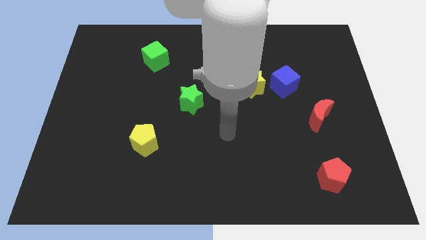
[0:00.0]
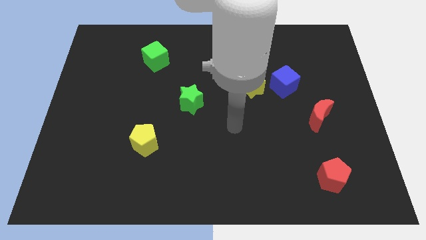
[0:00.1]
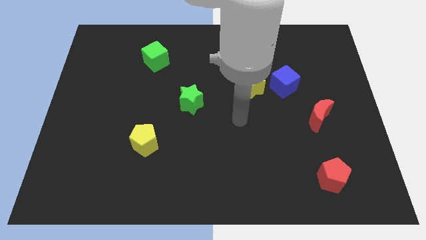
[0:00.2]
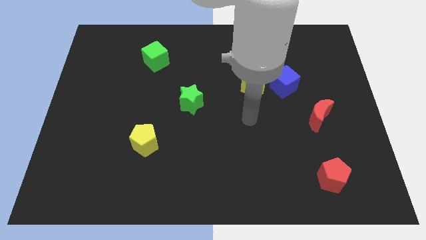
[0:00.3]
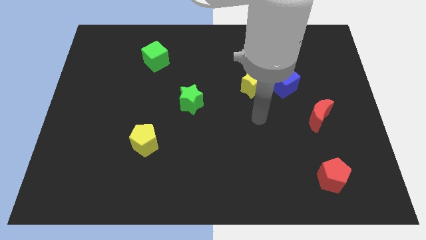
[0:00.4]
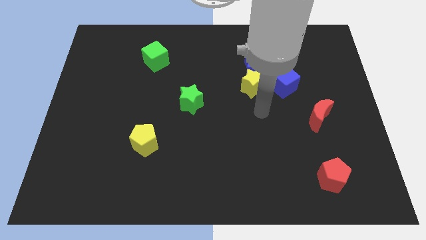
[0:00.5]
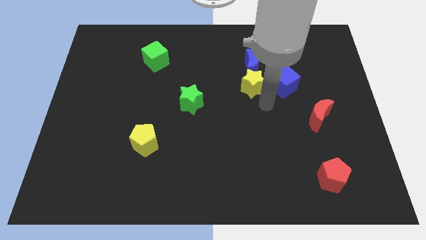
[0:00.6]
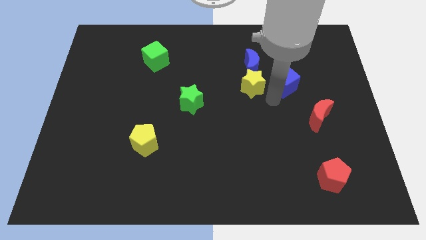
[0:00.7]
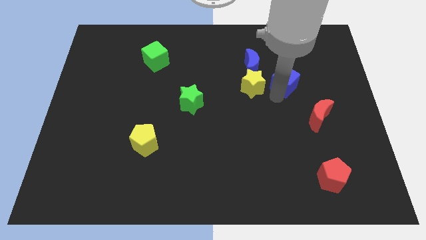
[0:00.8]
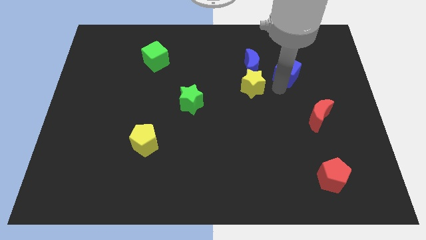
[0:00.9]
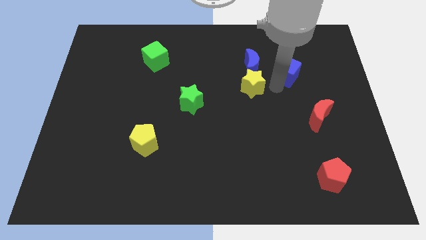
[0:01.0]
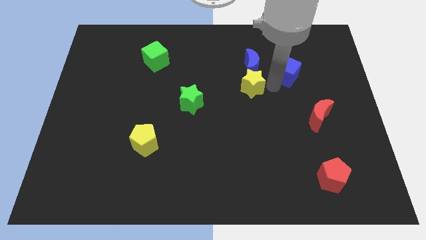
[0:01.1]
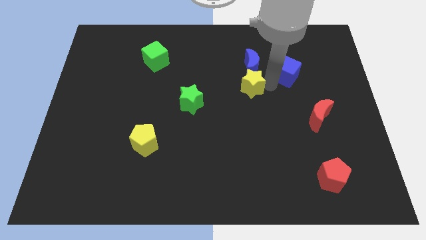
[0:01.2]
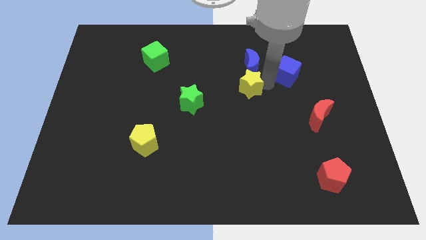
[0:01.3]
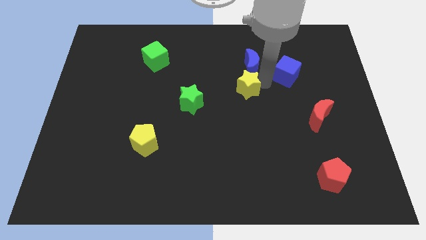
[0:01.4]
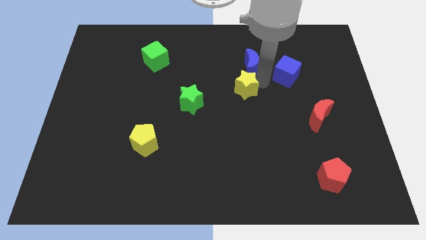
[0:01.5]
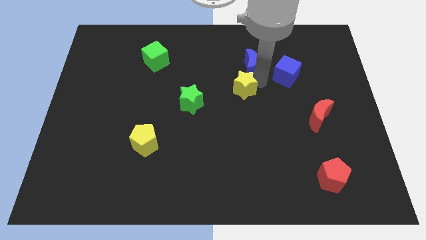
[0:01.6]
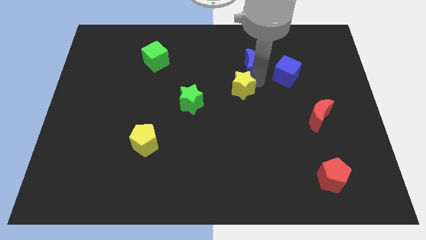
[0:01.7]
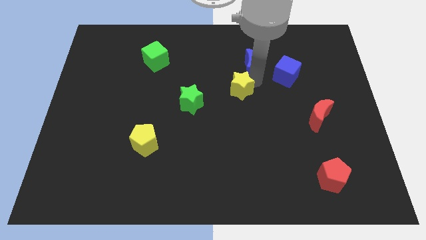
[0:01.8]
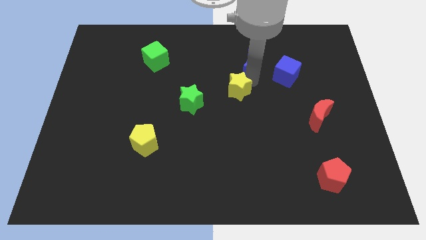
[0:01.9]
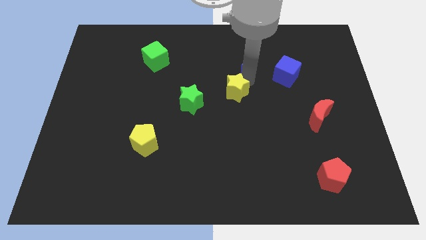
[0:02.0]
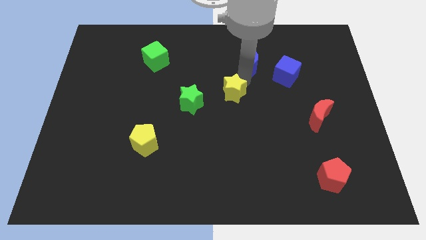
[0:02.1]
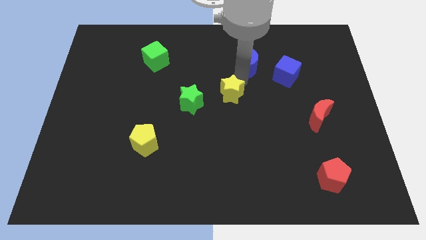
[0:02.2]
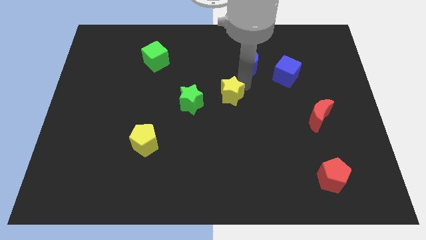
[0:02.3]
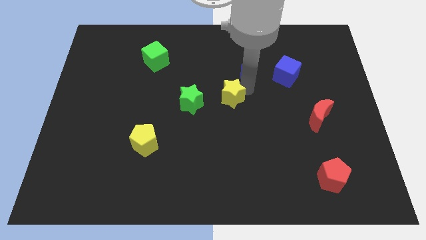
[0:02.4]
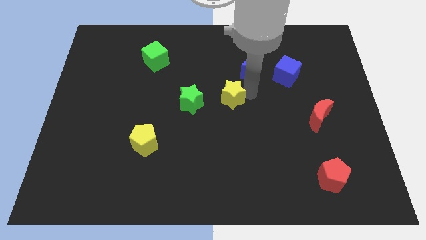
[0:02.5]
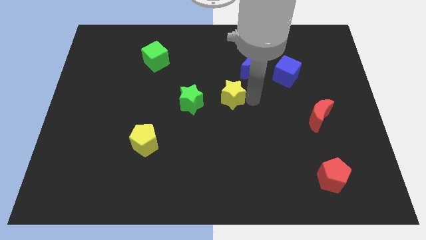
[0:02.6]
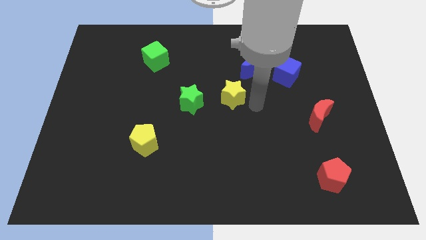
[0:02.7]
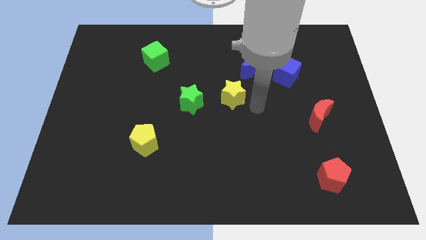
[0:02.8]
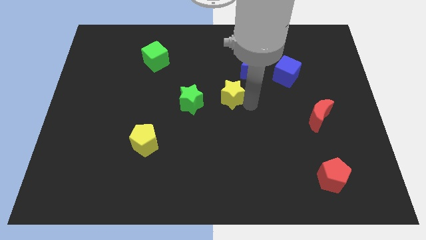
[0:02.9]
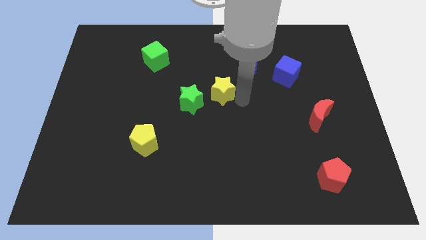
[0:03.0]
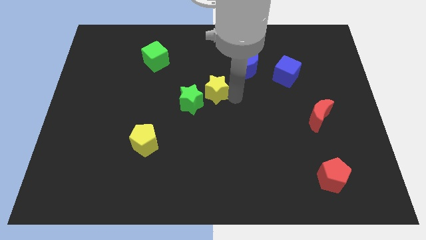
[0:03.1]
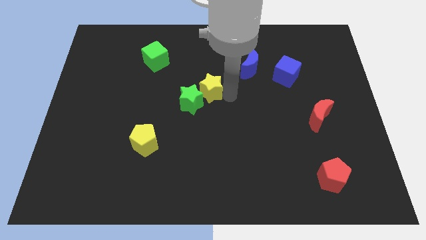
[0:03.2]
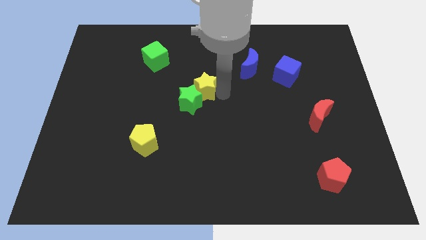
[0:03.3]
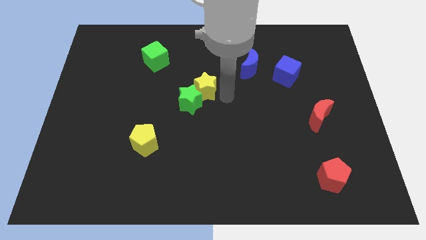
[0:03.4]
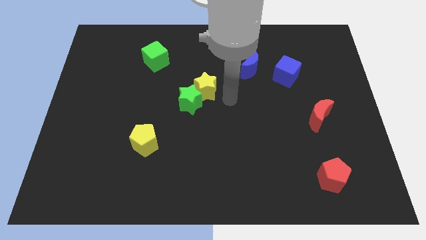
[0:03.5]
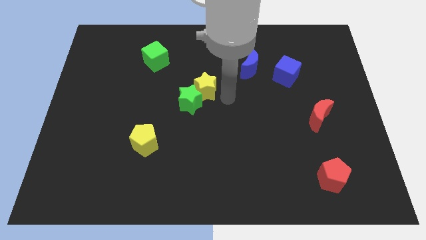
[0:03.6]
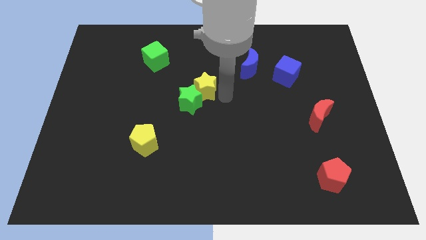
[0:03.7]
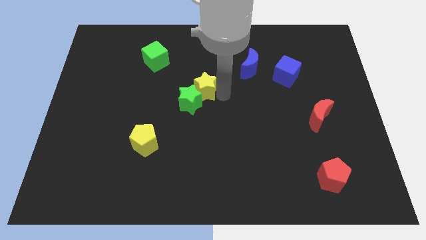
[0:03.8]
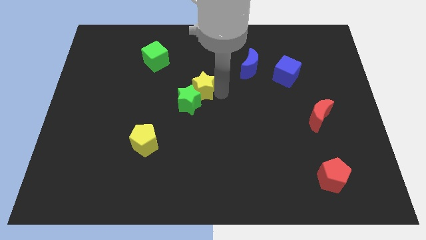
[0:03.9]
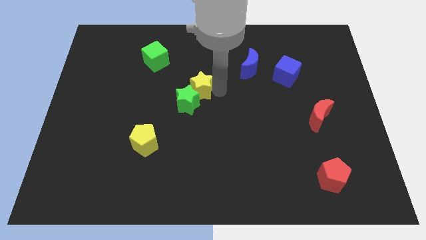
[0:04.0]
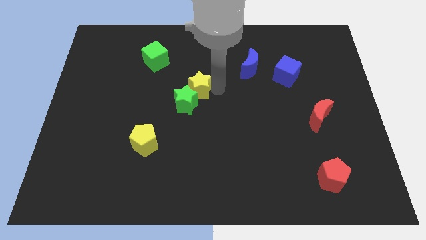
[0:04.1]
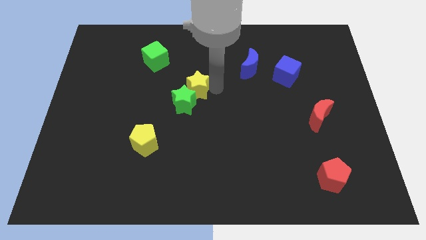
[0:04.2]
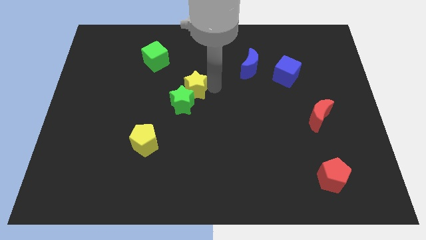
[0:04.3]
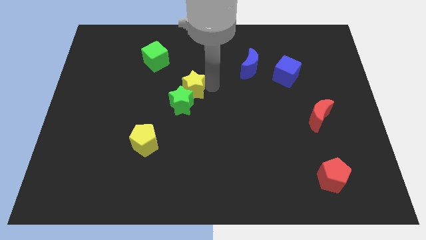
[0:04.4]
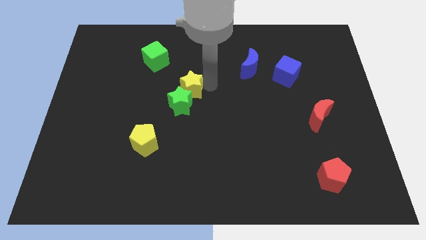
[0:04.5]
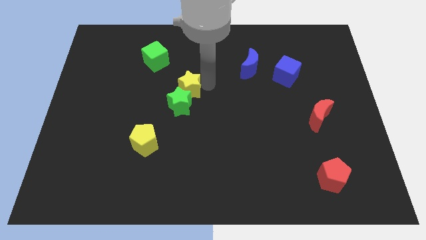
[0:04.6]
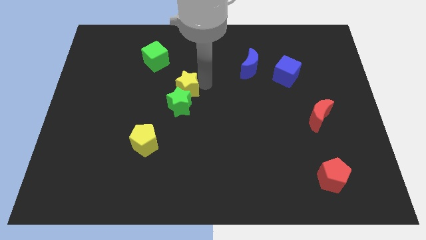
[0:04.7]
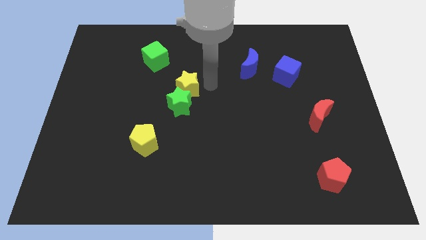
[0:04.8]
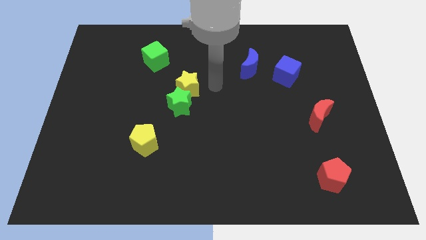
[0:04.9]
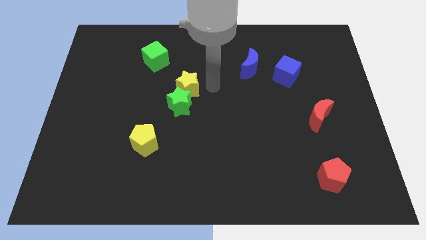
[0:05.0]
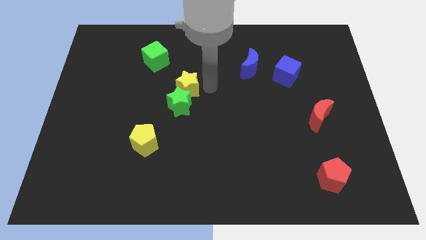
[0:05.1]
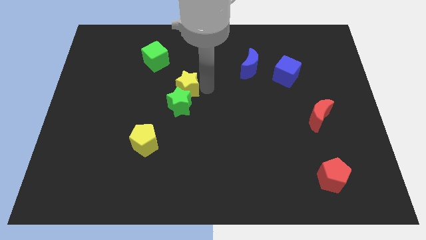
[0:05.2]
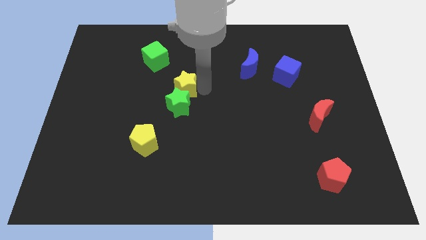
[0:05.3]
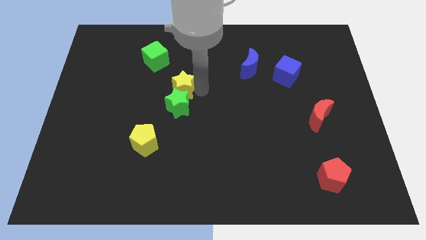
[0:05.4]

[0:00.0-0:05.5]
slide the yellow star to the top left side of the green star

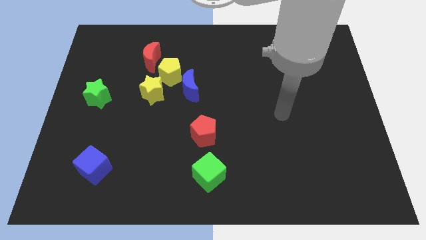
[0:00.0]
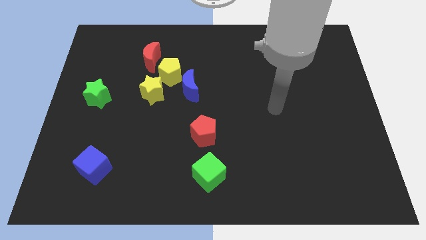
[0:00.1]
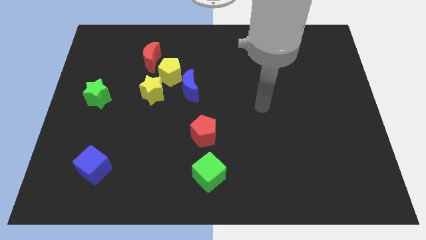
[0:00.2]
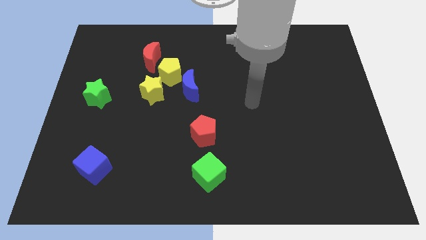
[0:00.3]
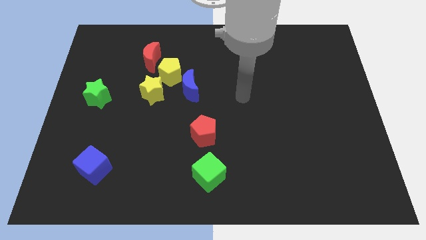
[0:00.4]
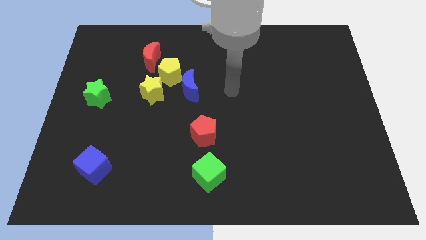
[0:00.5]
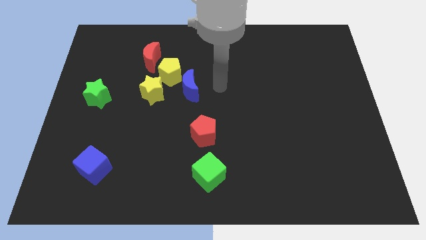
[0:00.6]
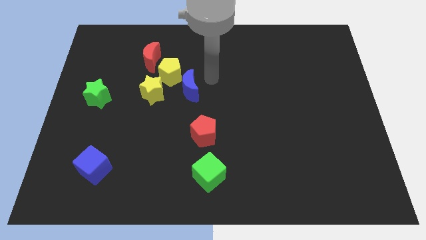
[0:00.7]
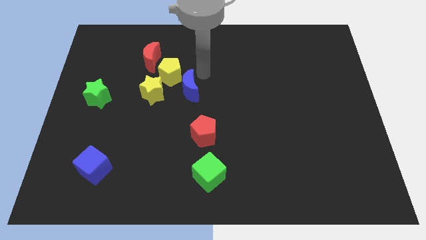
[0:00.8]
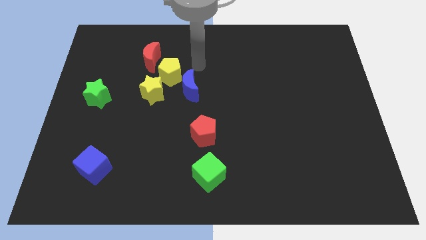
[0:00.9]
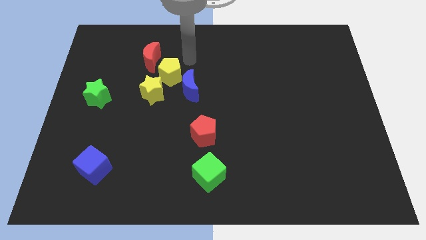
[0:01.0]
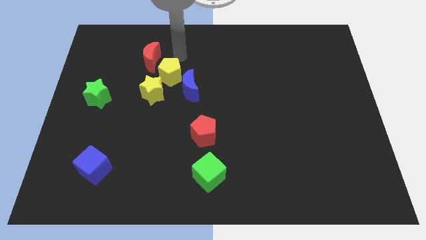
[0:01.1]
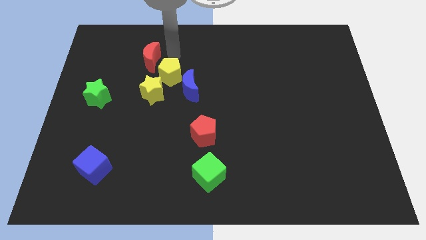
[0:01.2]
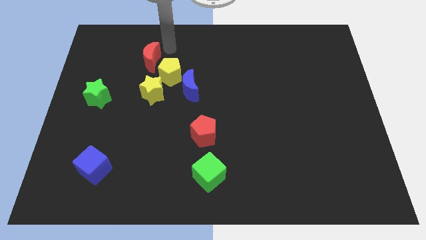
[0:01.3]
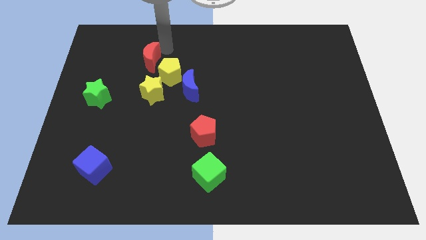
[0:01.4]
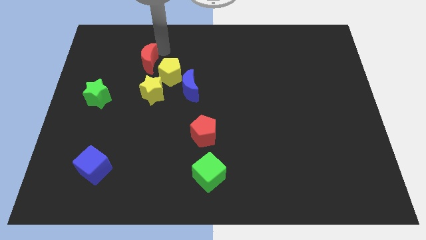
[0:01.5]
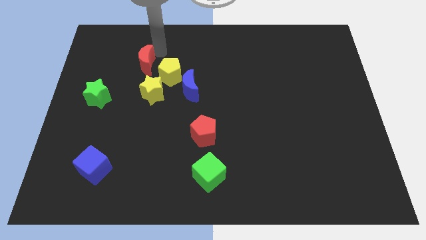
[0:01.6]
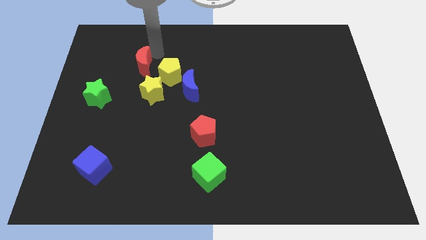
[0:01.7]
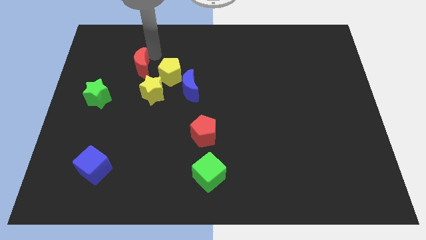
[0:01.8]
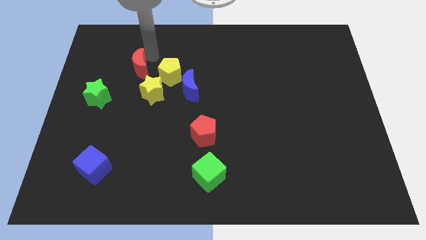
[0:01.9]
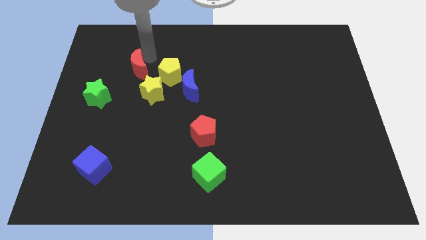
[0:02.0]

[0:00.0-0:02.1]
put the red moon to the top right side of the green star

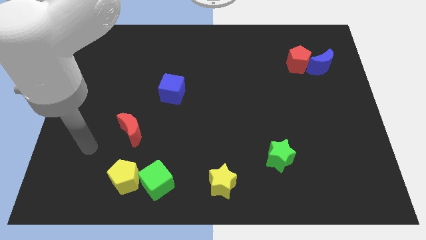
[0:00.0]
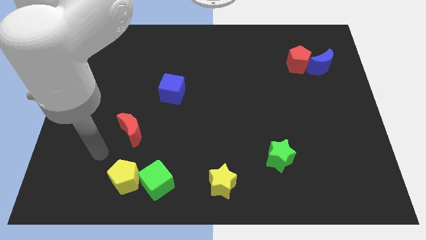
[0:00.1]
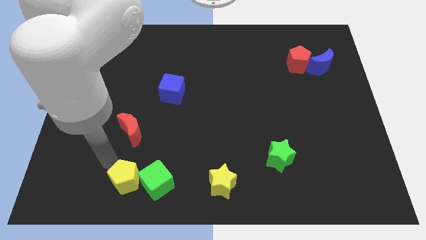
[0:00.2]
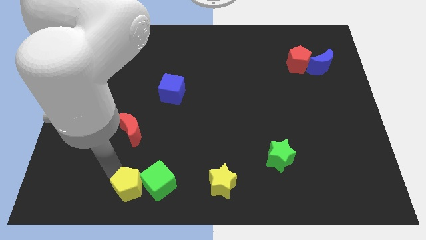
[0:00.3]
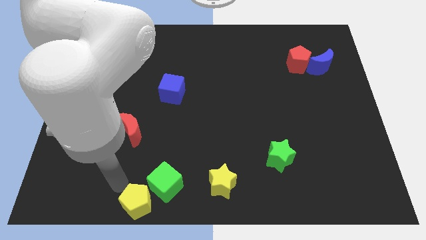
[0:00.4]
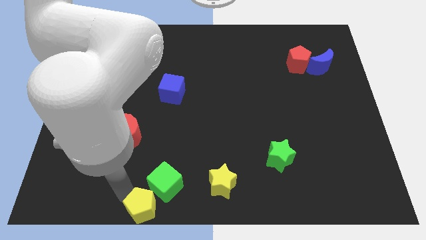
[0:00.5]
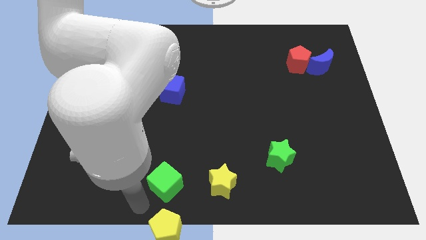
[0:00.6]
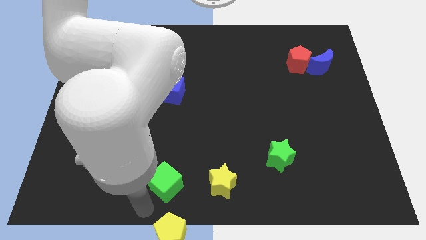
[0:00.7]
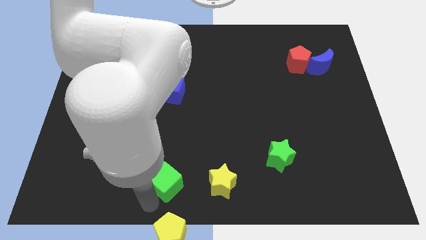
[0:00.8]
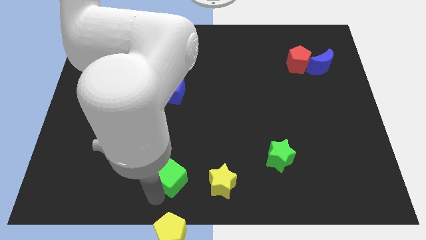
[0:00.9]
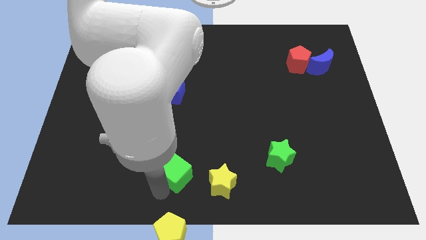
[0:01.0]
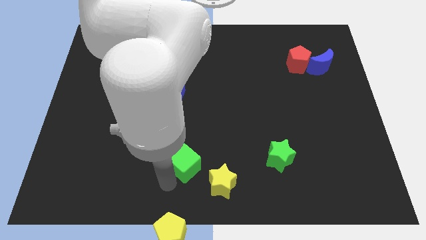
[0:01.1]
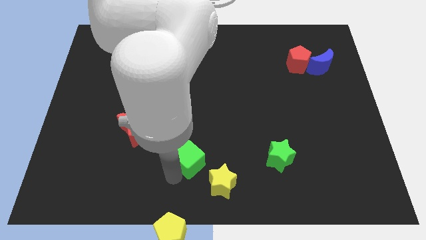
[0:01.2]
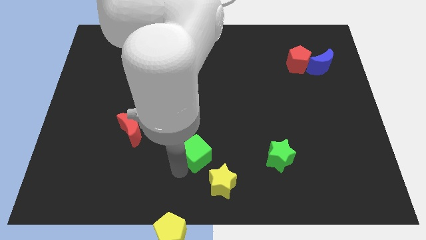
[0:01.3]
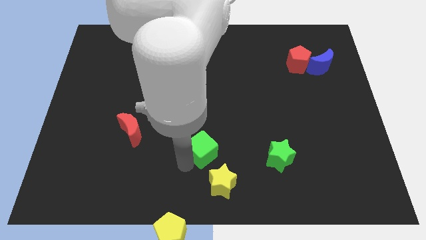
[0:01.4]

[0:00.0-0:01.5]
put the green cube to the top side of the yellow star
